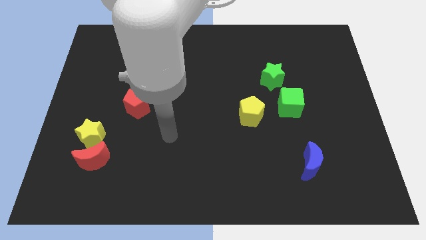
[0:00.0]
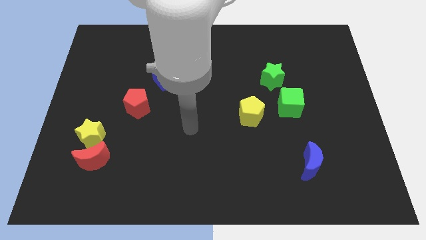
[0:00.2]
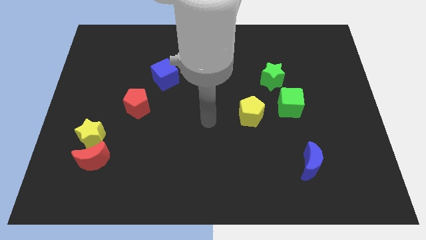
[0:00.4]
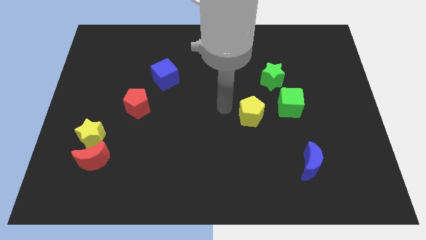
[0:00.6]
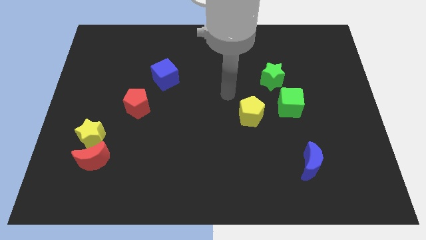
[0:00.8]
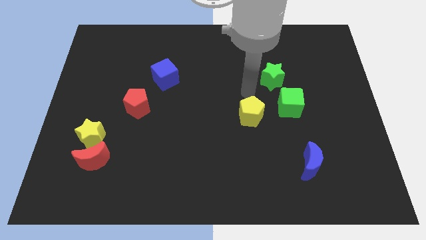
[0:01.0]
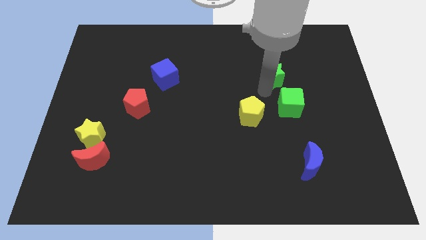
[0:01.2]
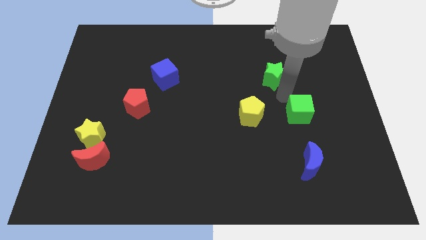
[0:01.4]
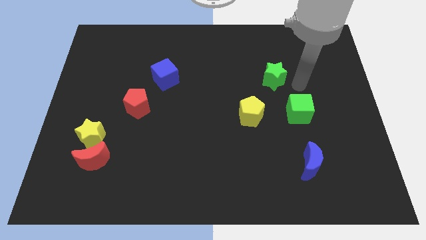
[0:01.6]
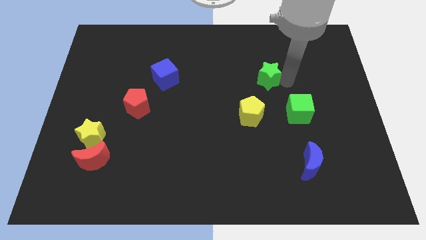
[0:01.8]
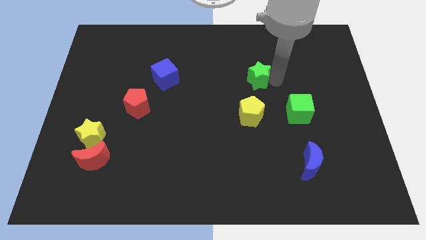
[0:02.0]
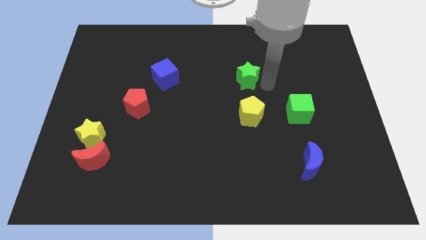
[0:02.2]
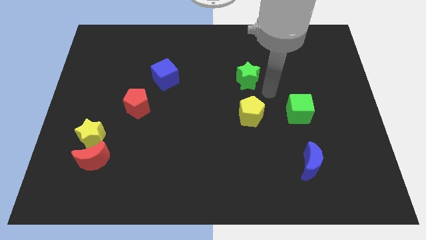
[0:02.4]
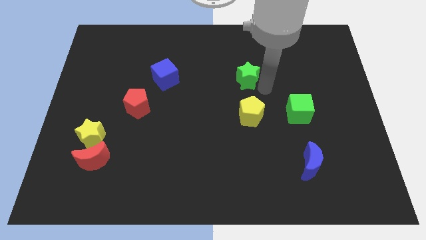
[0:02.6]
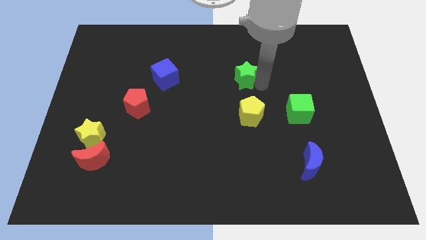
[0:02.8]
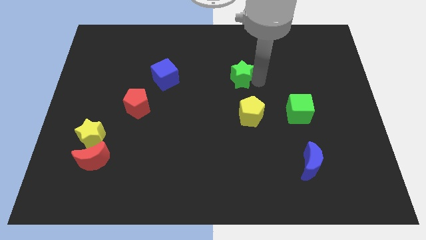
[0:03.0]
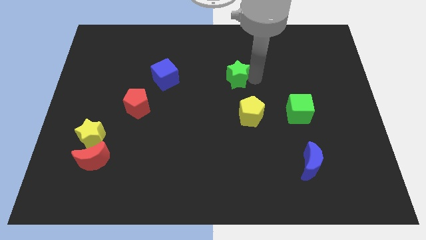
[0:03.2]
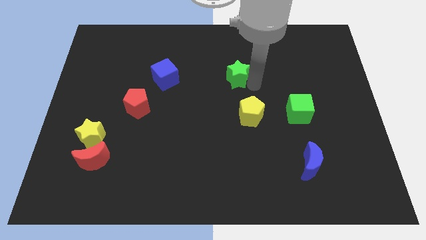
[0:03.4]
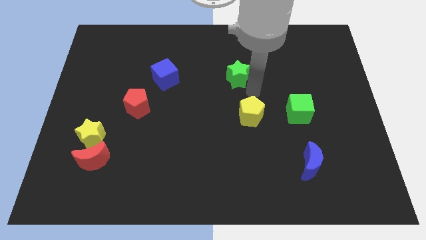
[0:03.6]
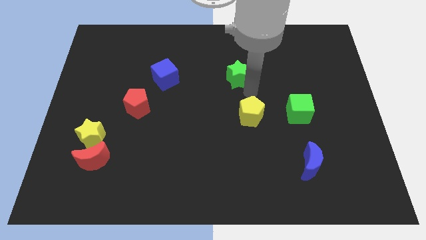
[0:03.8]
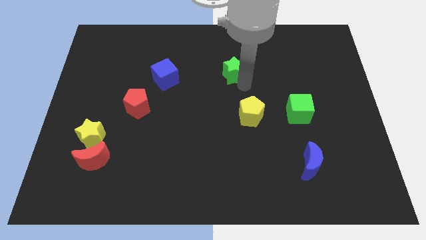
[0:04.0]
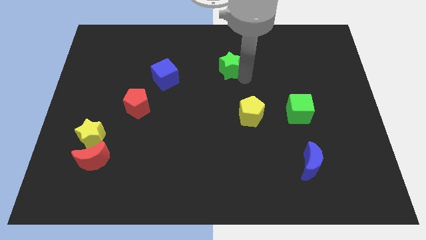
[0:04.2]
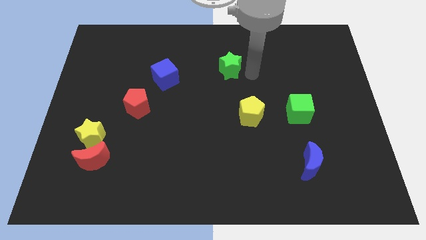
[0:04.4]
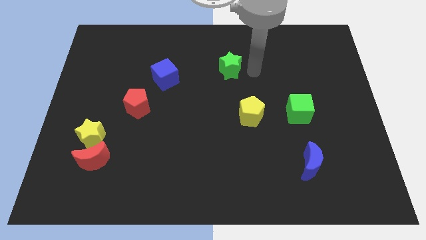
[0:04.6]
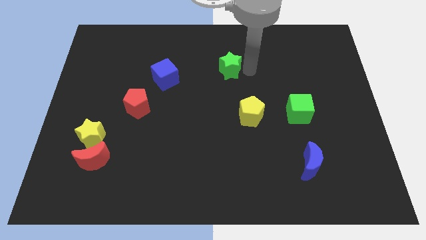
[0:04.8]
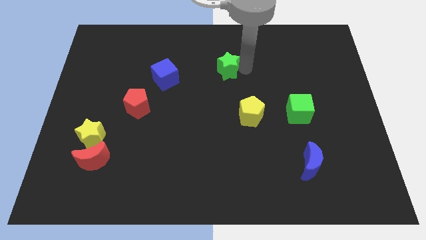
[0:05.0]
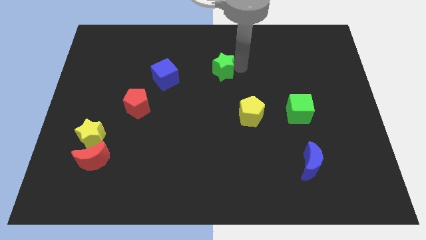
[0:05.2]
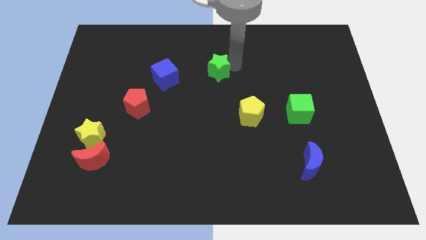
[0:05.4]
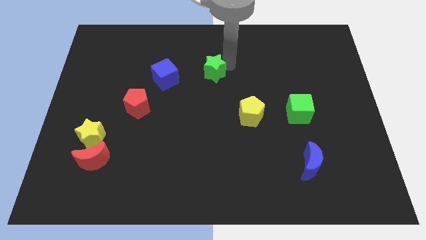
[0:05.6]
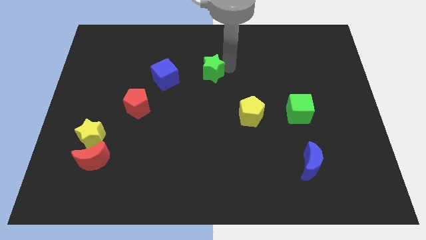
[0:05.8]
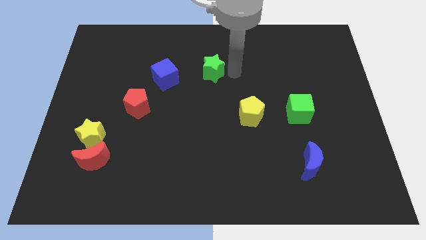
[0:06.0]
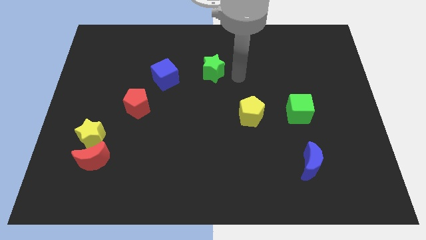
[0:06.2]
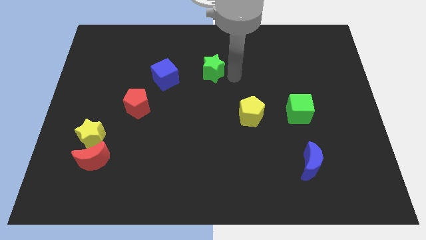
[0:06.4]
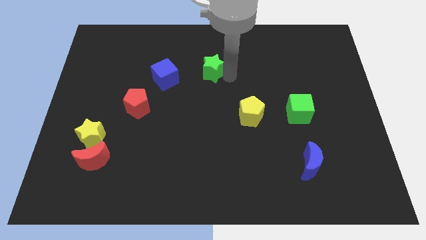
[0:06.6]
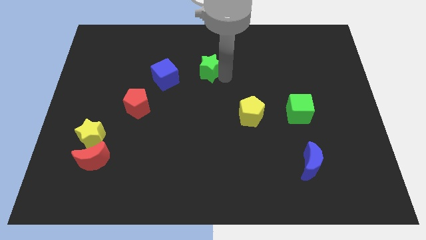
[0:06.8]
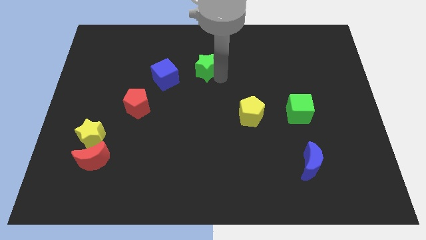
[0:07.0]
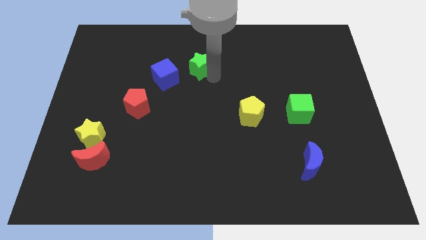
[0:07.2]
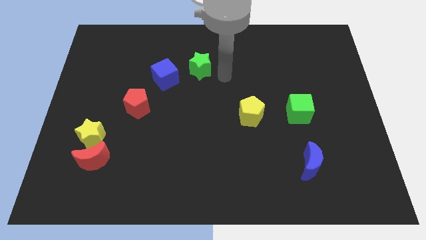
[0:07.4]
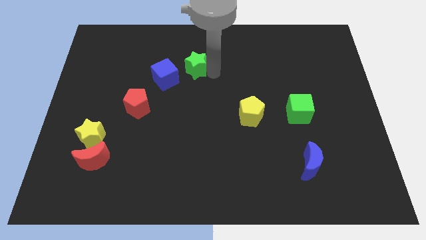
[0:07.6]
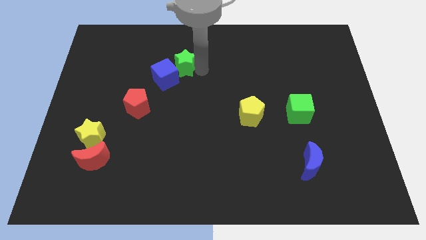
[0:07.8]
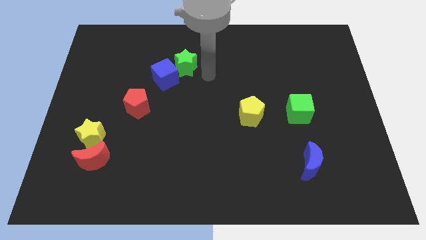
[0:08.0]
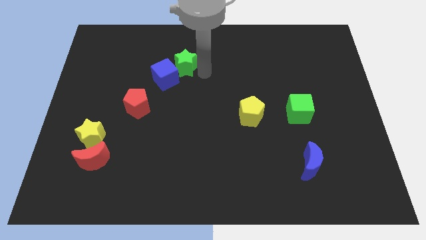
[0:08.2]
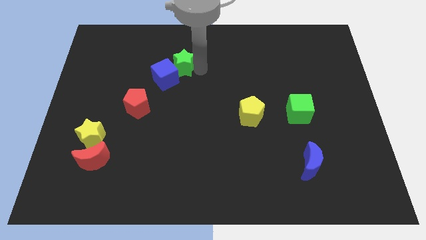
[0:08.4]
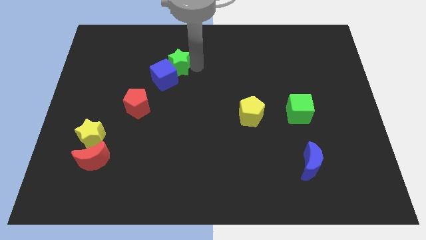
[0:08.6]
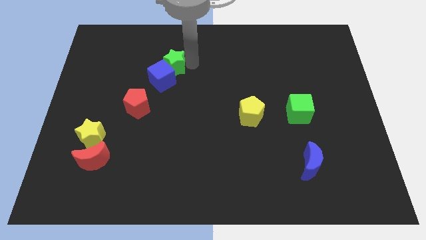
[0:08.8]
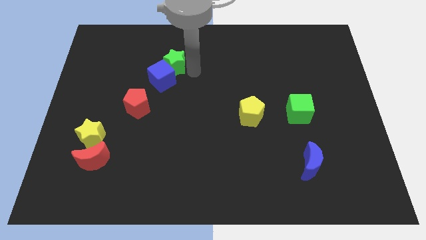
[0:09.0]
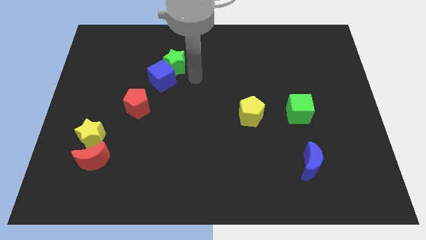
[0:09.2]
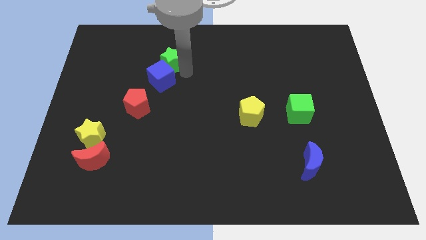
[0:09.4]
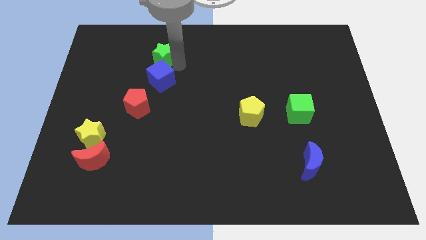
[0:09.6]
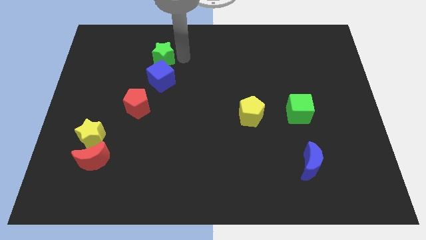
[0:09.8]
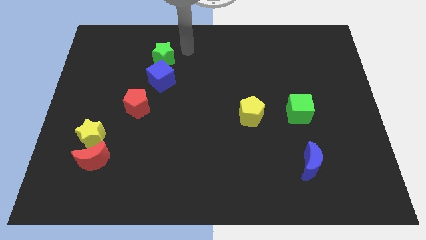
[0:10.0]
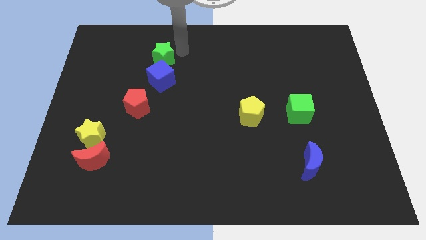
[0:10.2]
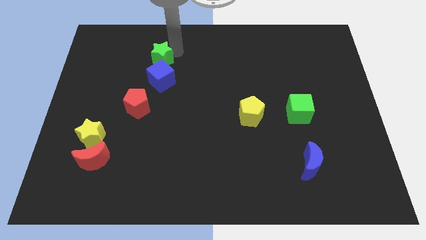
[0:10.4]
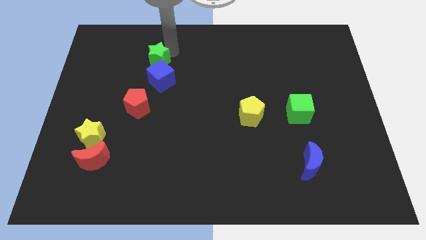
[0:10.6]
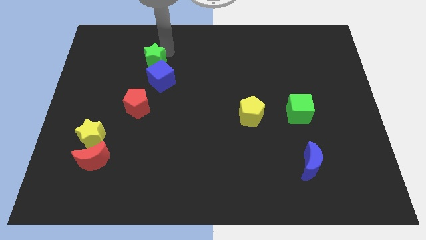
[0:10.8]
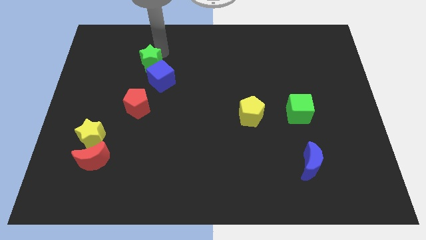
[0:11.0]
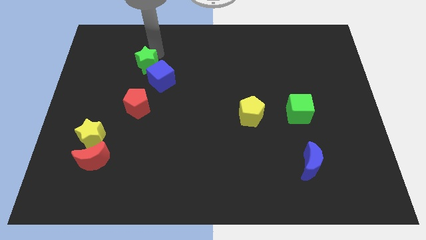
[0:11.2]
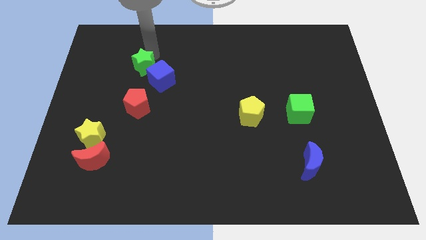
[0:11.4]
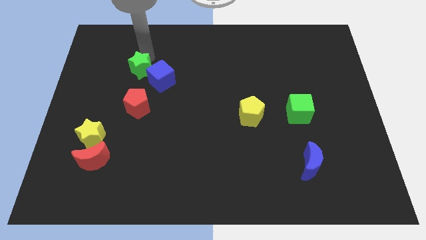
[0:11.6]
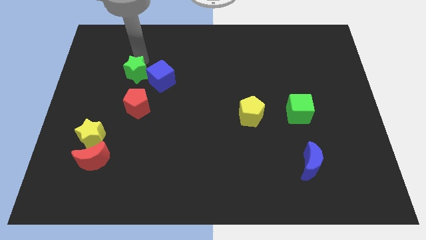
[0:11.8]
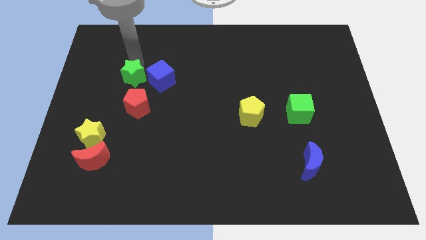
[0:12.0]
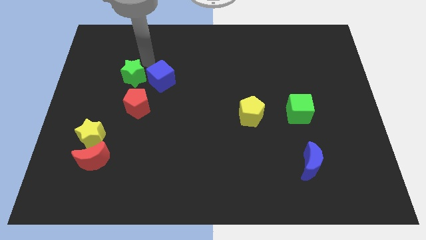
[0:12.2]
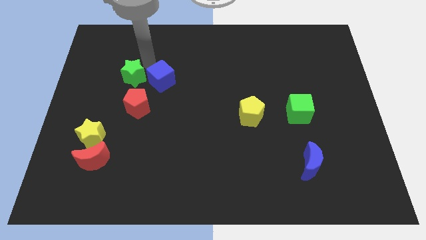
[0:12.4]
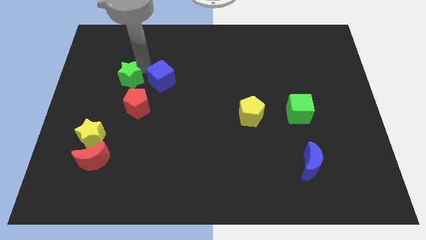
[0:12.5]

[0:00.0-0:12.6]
put the green star to the top left side of the red pentagon
